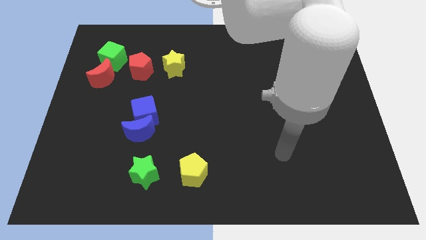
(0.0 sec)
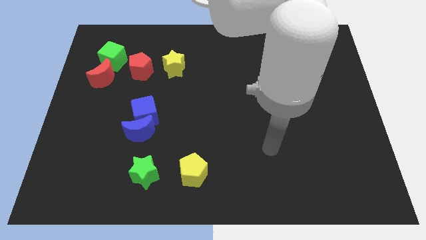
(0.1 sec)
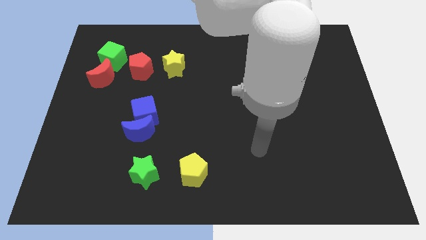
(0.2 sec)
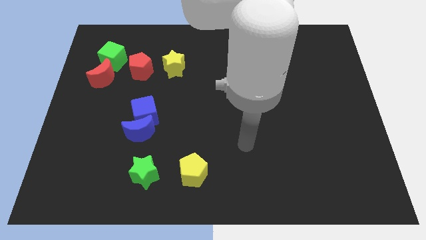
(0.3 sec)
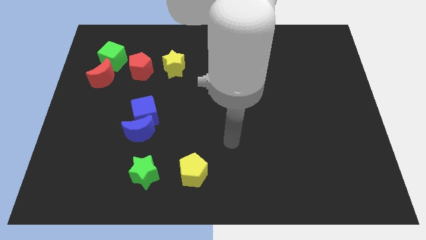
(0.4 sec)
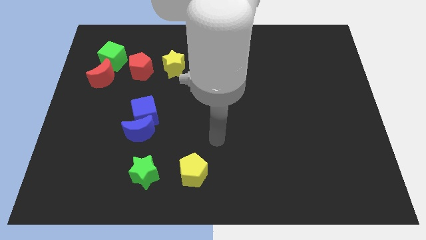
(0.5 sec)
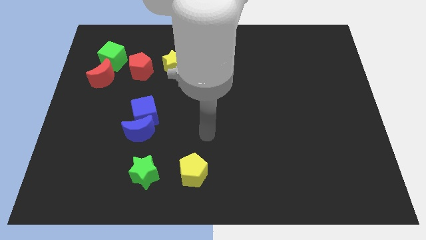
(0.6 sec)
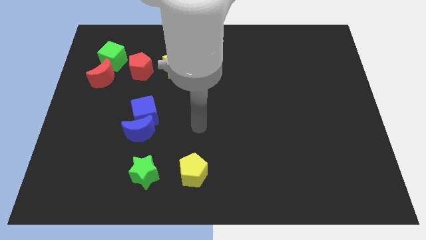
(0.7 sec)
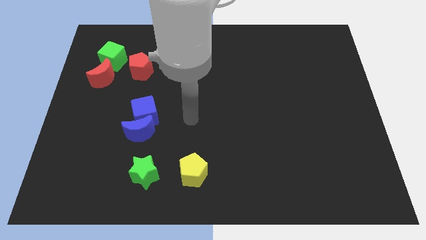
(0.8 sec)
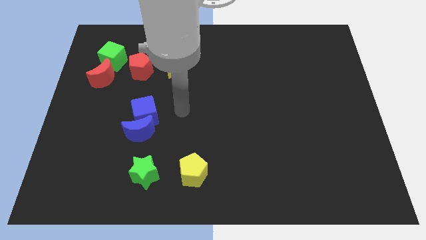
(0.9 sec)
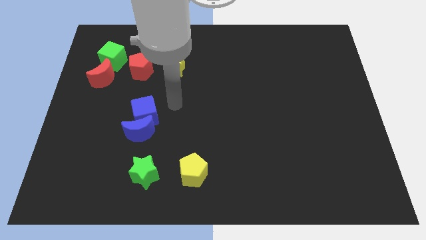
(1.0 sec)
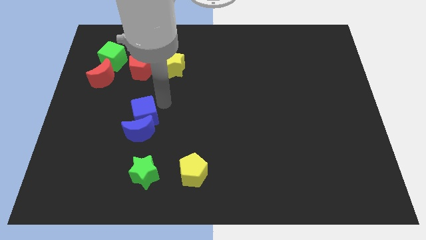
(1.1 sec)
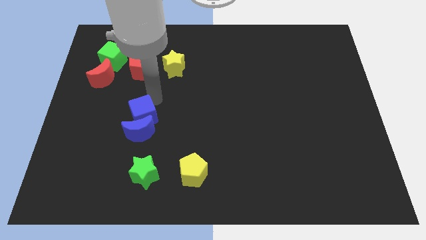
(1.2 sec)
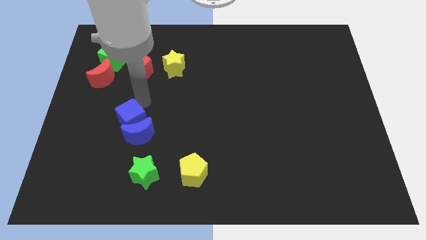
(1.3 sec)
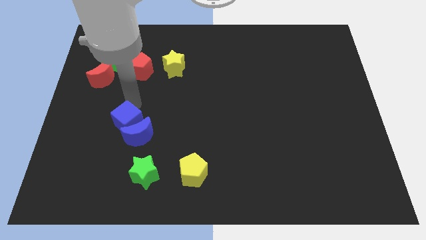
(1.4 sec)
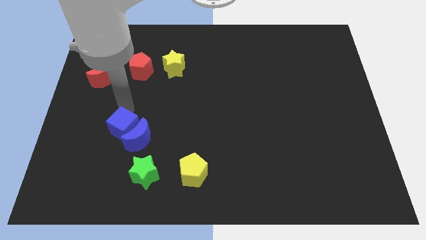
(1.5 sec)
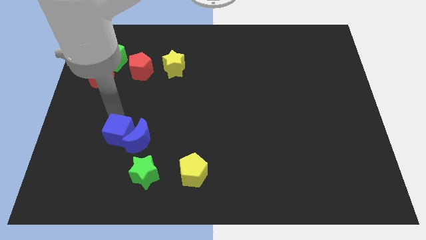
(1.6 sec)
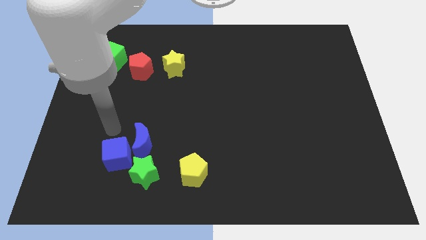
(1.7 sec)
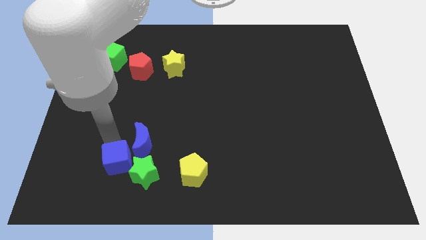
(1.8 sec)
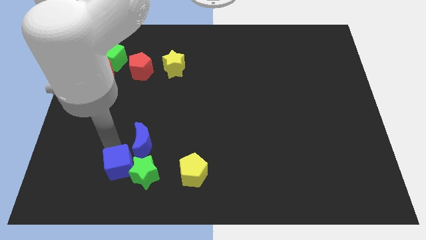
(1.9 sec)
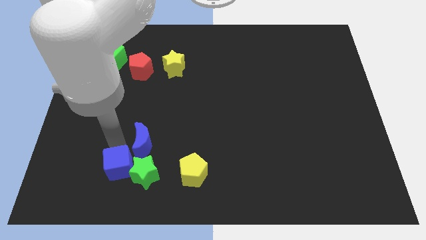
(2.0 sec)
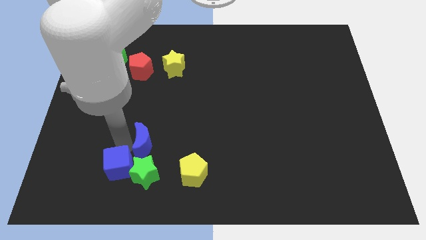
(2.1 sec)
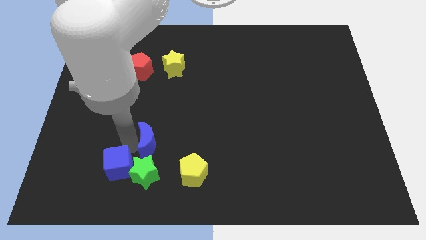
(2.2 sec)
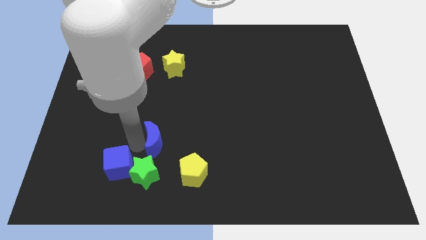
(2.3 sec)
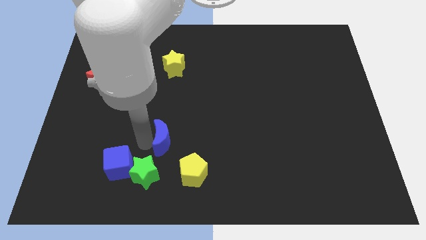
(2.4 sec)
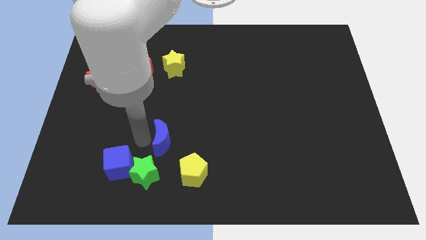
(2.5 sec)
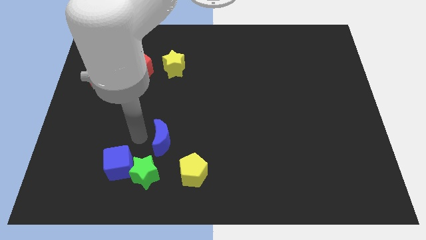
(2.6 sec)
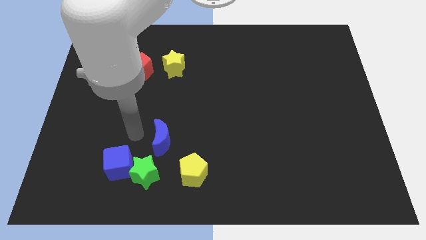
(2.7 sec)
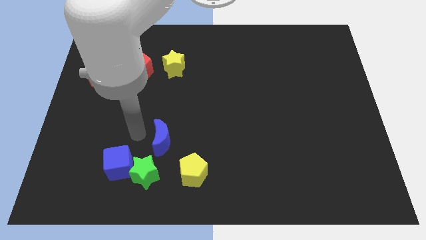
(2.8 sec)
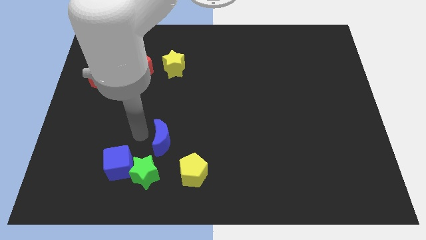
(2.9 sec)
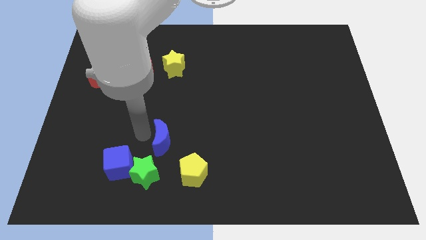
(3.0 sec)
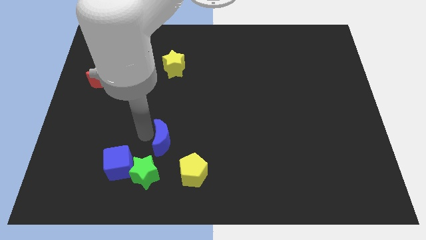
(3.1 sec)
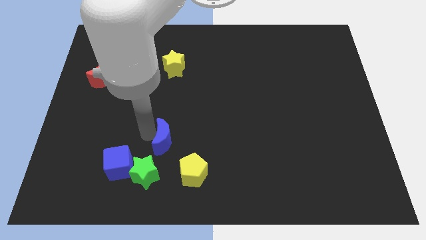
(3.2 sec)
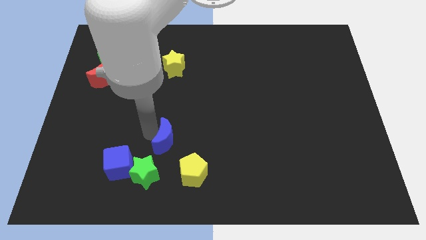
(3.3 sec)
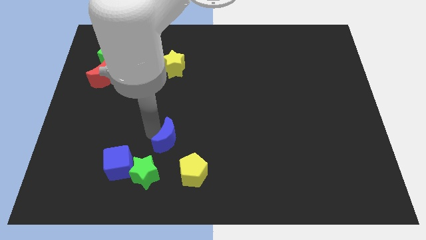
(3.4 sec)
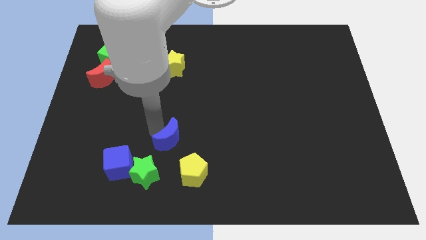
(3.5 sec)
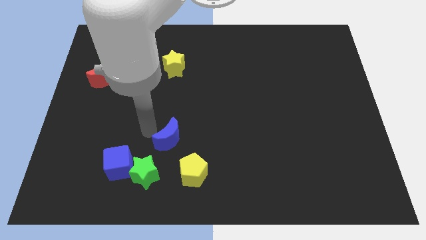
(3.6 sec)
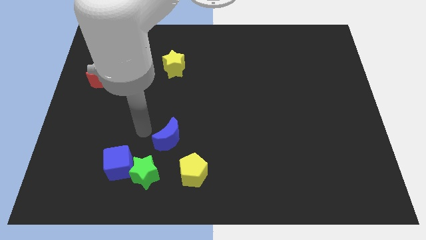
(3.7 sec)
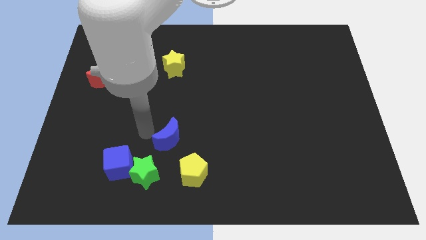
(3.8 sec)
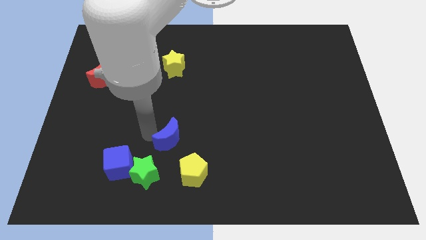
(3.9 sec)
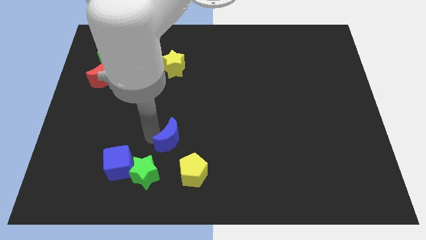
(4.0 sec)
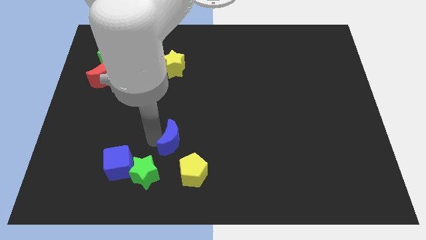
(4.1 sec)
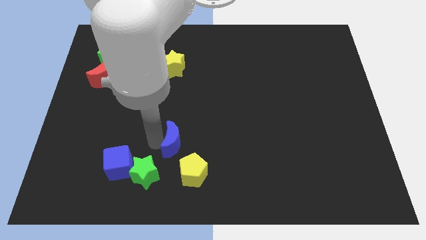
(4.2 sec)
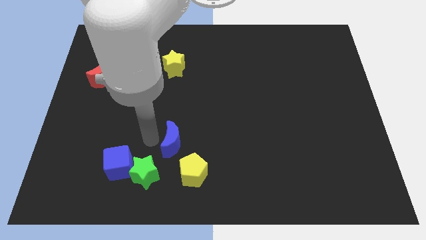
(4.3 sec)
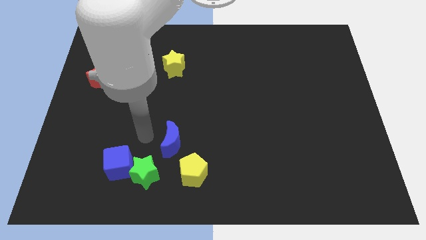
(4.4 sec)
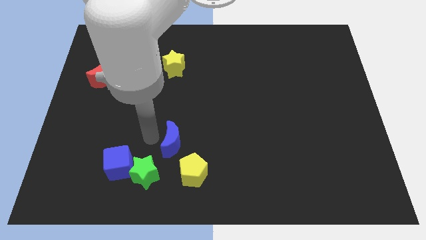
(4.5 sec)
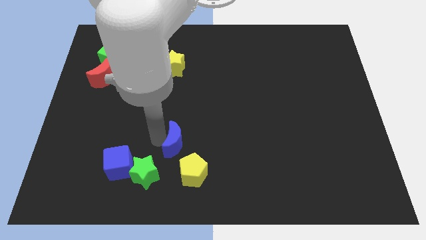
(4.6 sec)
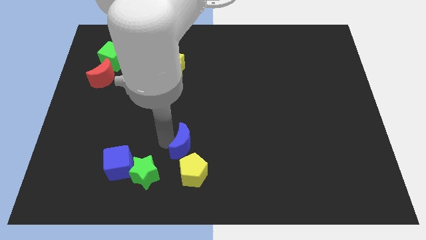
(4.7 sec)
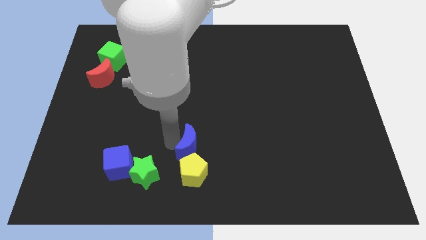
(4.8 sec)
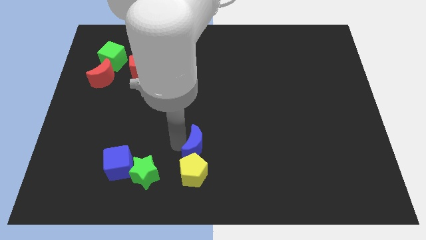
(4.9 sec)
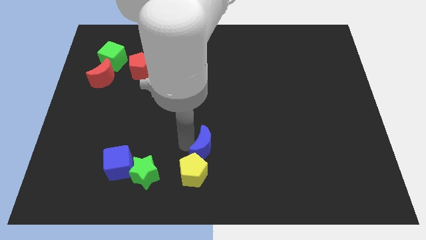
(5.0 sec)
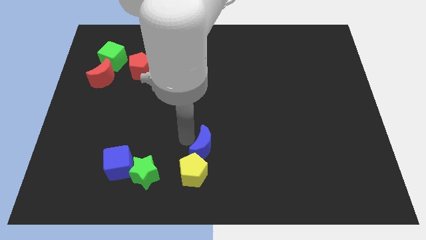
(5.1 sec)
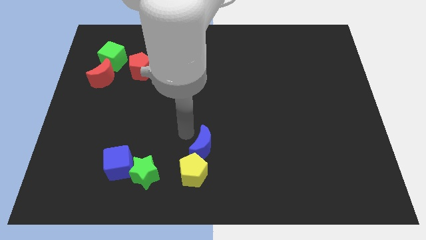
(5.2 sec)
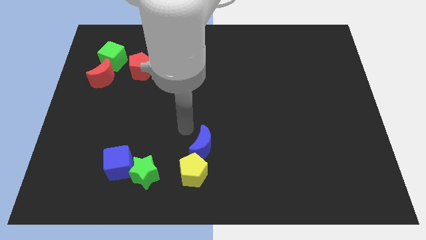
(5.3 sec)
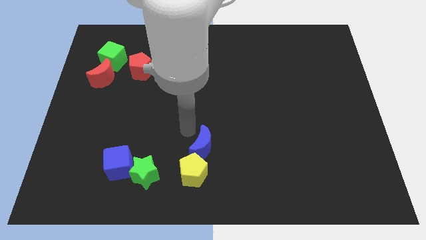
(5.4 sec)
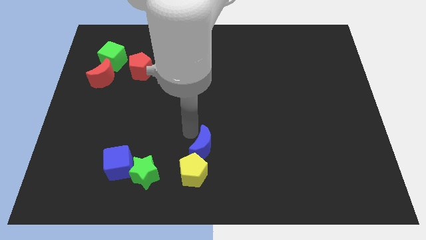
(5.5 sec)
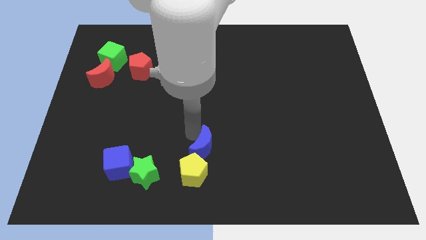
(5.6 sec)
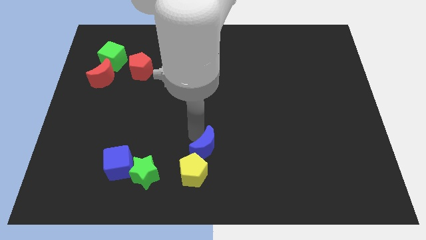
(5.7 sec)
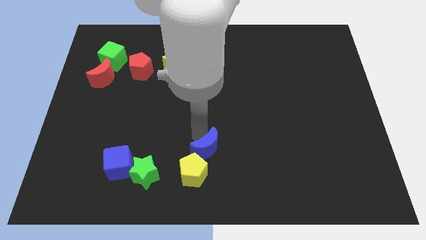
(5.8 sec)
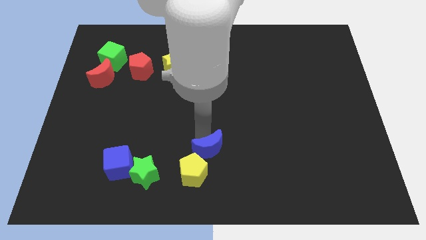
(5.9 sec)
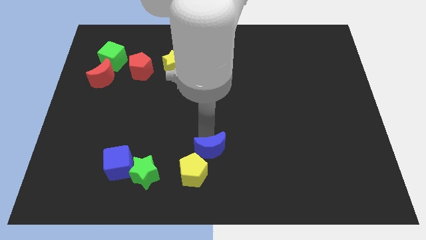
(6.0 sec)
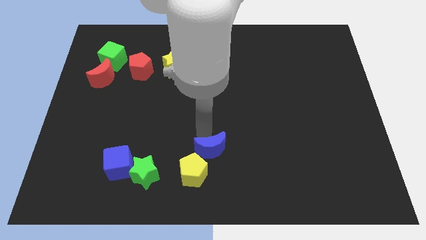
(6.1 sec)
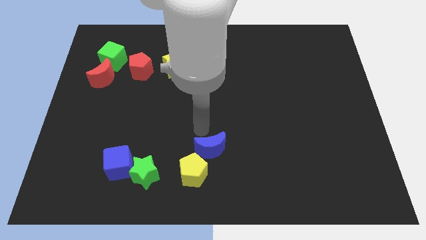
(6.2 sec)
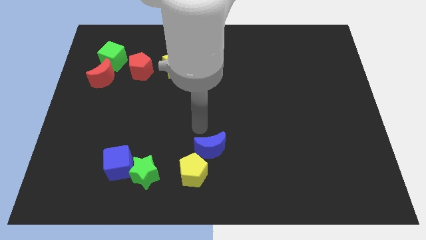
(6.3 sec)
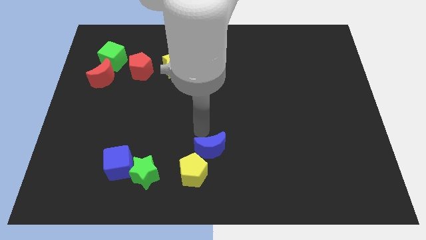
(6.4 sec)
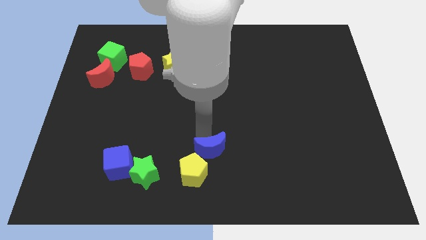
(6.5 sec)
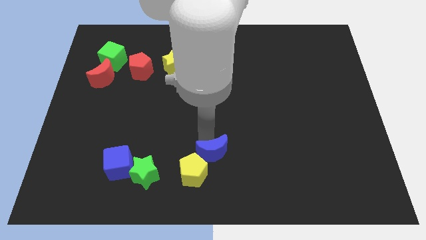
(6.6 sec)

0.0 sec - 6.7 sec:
push the blue moon to the bottom
